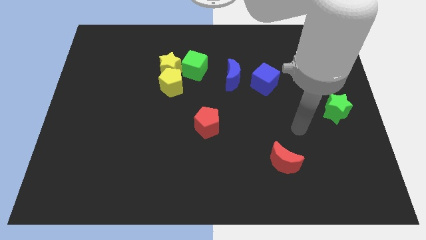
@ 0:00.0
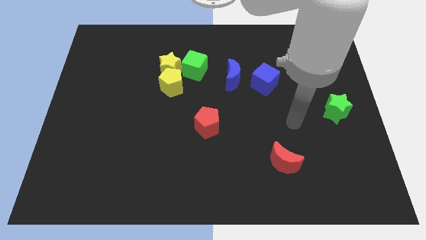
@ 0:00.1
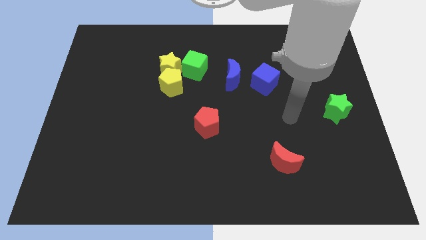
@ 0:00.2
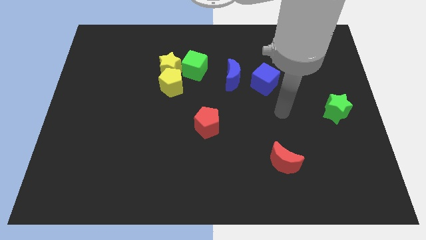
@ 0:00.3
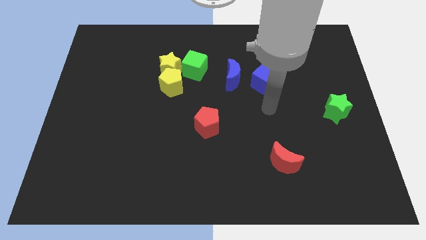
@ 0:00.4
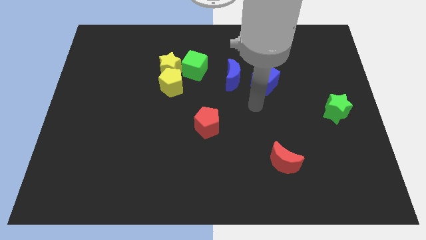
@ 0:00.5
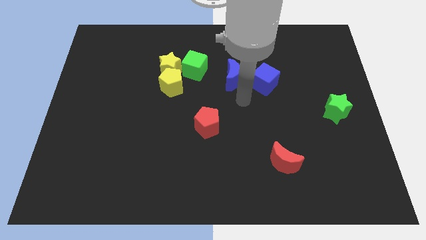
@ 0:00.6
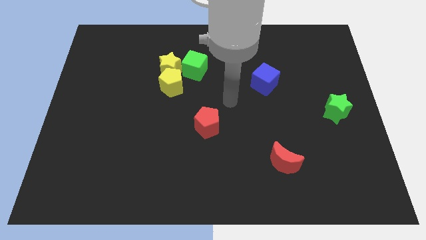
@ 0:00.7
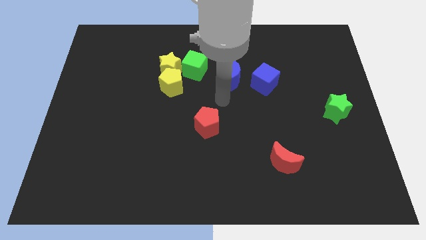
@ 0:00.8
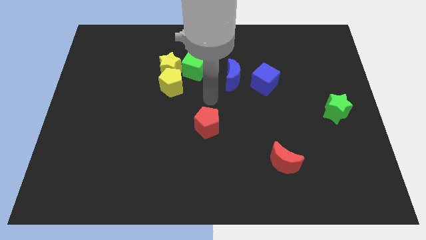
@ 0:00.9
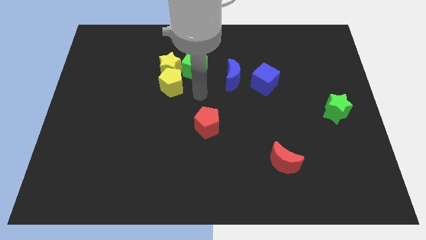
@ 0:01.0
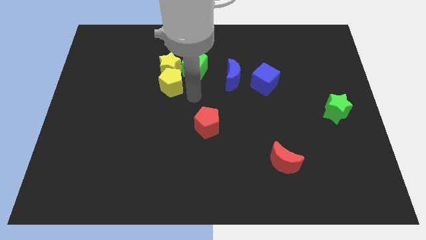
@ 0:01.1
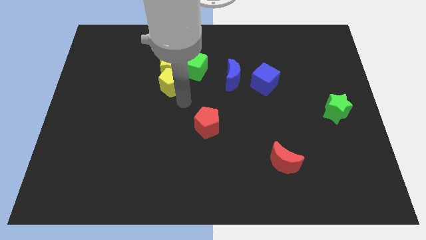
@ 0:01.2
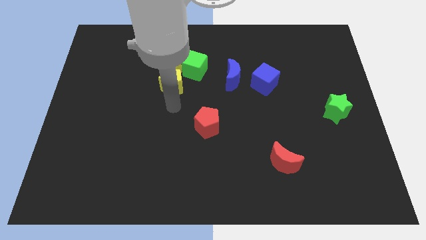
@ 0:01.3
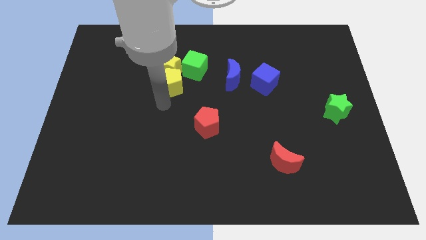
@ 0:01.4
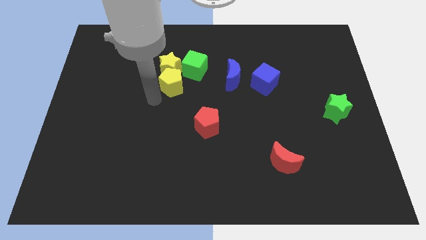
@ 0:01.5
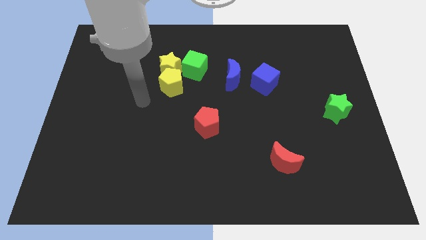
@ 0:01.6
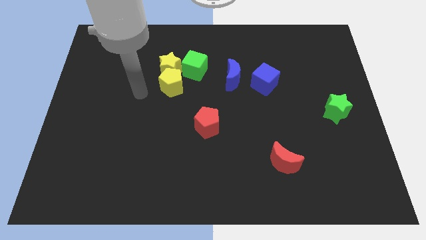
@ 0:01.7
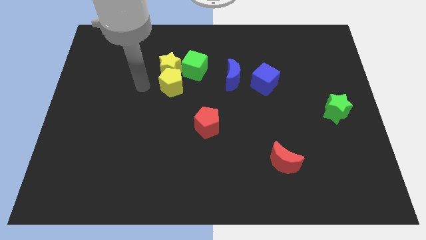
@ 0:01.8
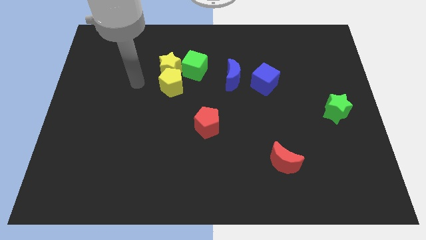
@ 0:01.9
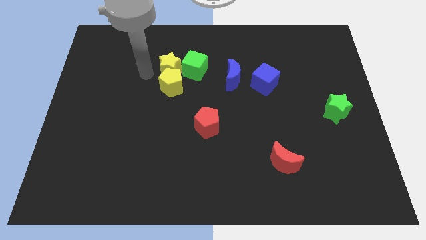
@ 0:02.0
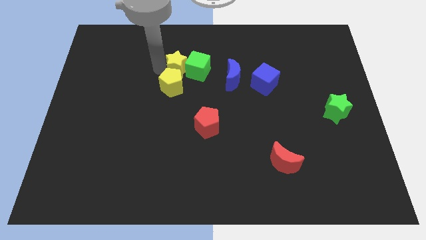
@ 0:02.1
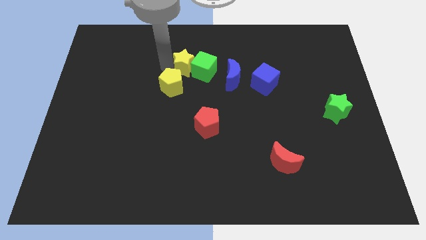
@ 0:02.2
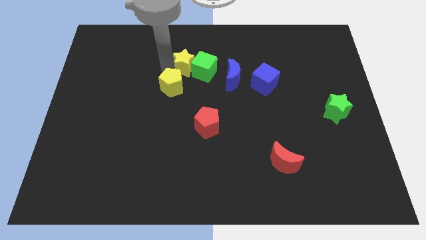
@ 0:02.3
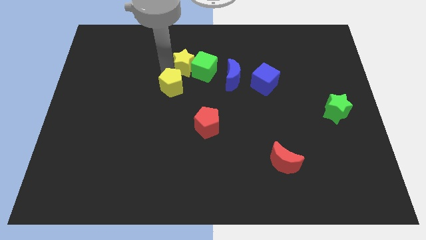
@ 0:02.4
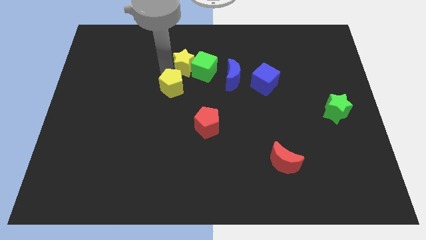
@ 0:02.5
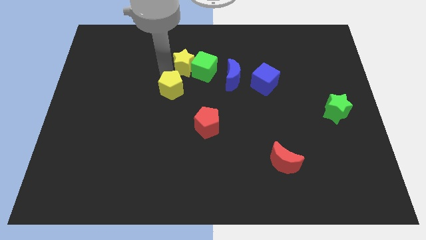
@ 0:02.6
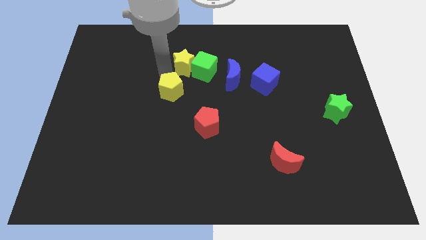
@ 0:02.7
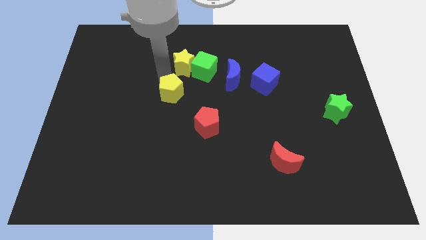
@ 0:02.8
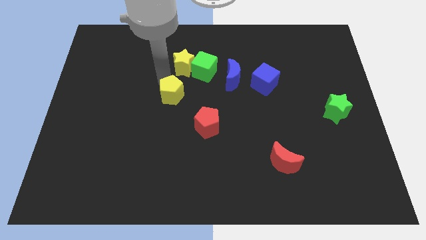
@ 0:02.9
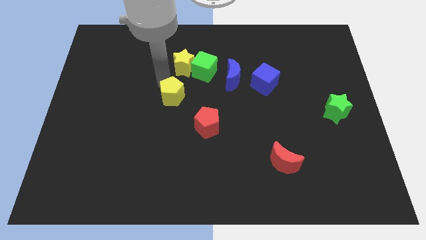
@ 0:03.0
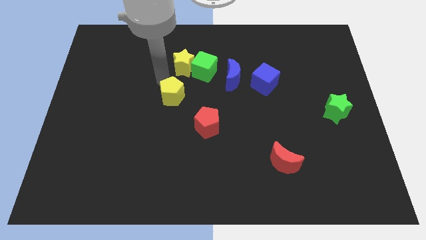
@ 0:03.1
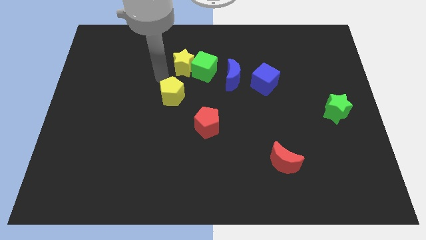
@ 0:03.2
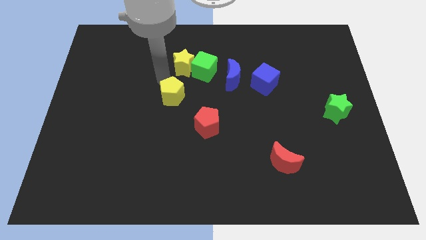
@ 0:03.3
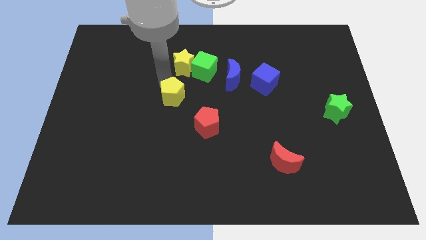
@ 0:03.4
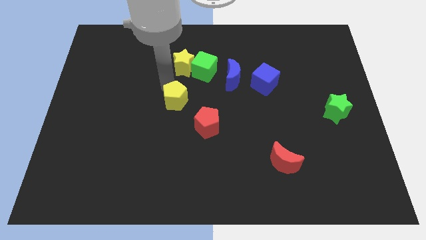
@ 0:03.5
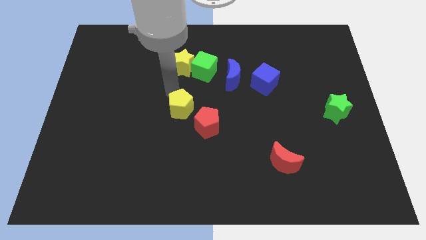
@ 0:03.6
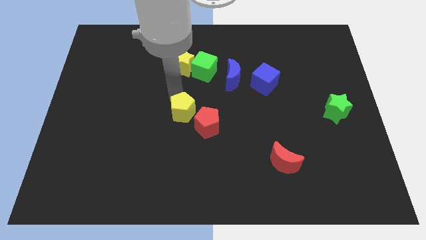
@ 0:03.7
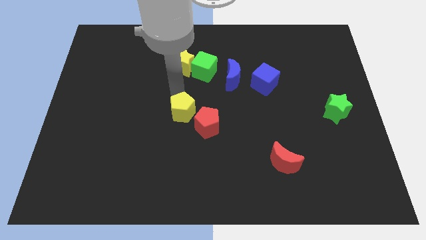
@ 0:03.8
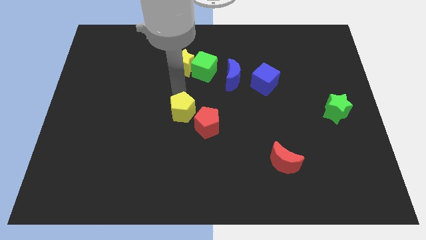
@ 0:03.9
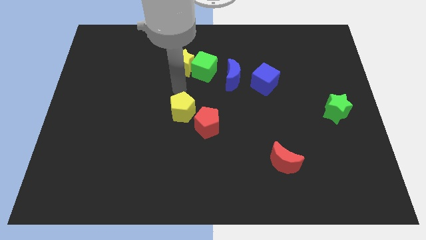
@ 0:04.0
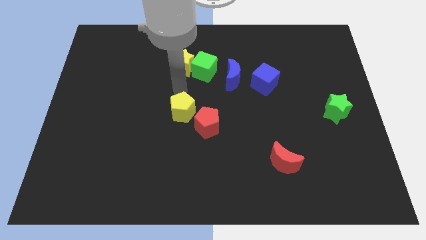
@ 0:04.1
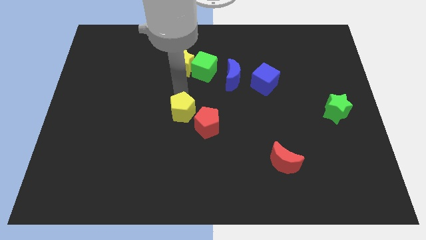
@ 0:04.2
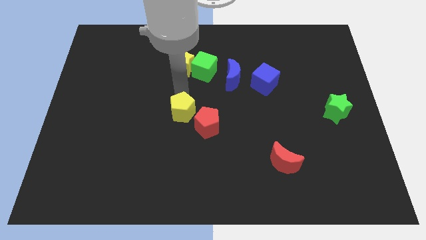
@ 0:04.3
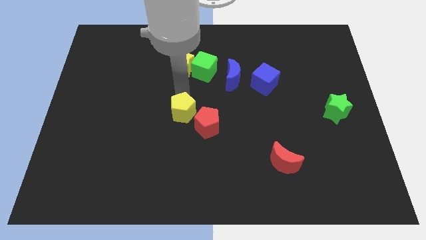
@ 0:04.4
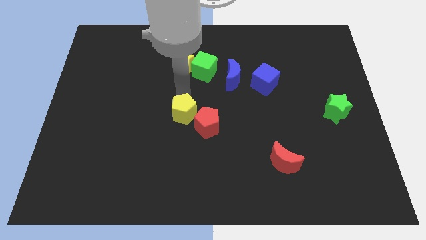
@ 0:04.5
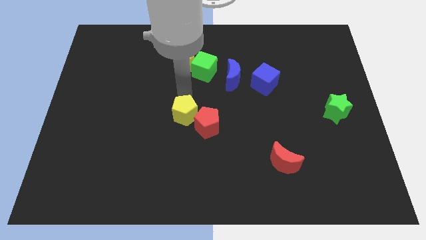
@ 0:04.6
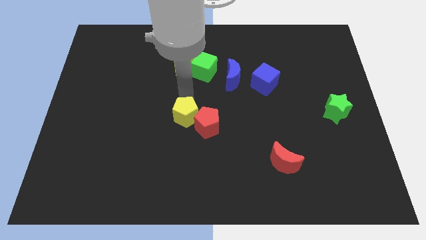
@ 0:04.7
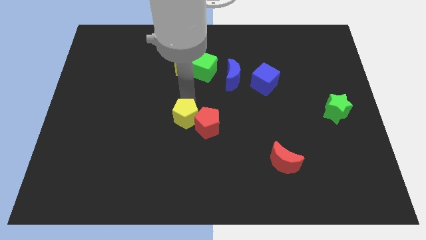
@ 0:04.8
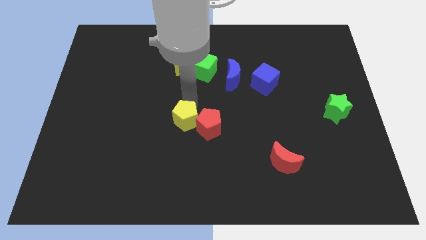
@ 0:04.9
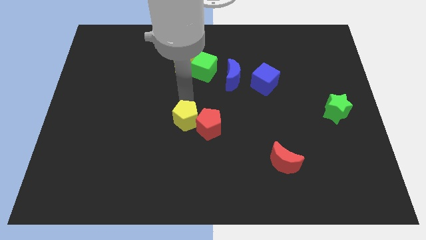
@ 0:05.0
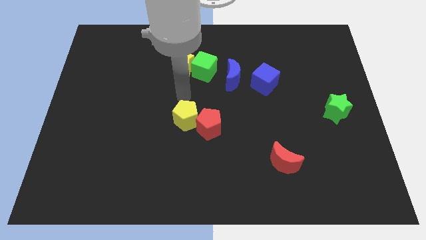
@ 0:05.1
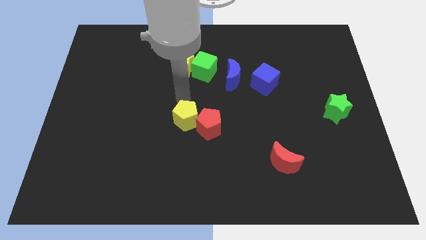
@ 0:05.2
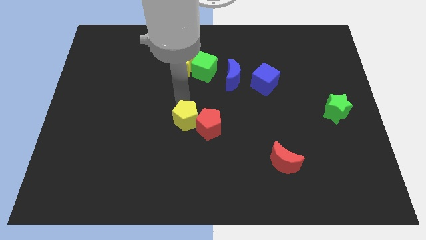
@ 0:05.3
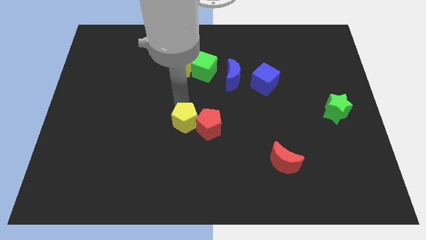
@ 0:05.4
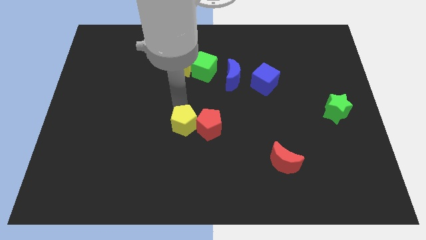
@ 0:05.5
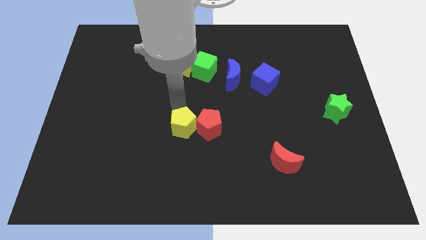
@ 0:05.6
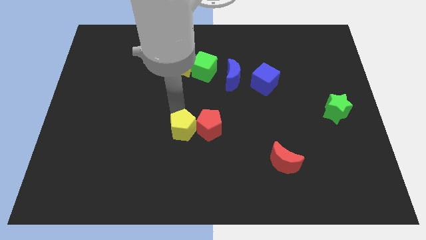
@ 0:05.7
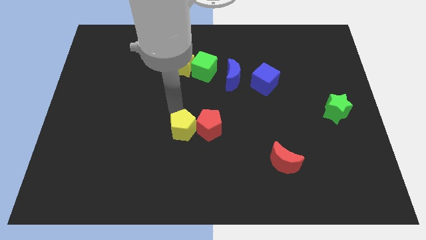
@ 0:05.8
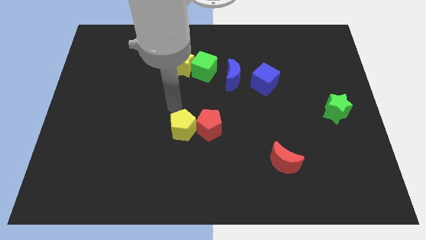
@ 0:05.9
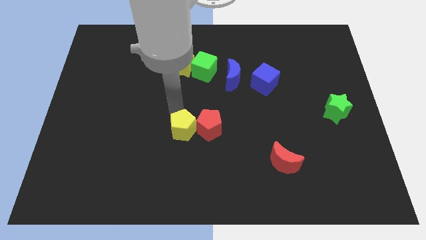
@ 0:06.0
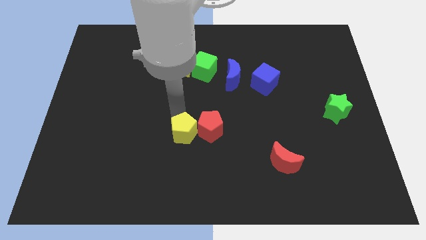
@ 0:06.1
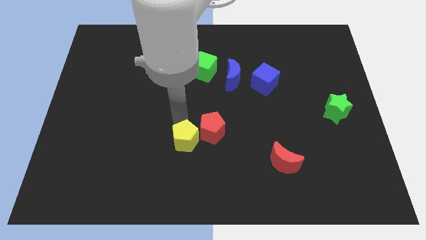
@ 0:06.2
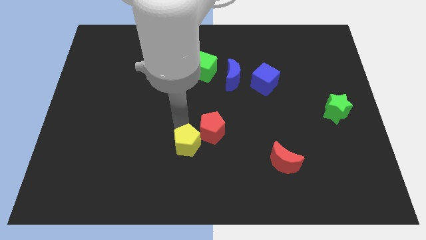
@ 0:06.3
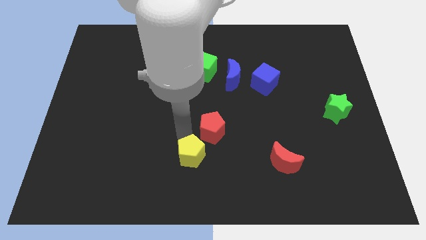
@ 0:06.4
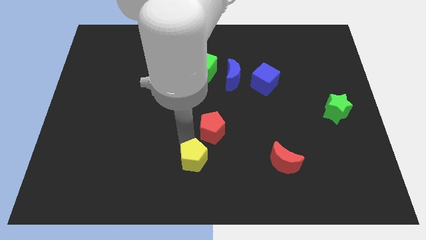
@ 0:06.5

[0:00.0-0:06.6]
push the yellow pentagon to the bottom side

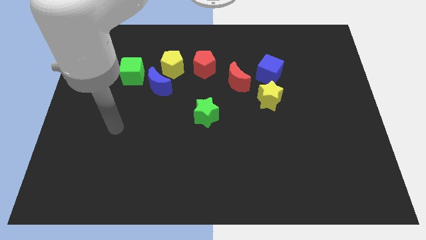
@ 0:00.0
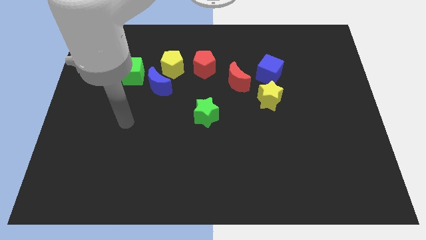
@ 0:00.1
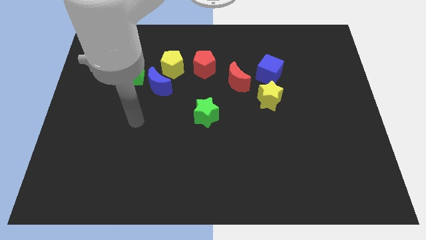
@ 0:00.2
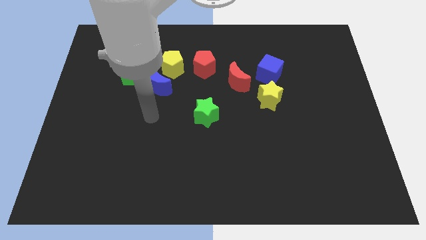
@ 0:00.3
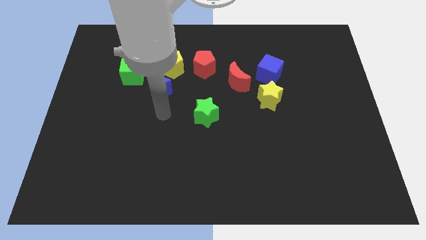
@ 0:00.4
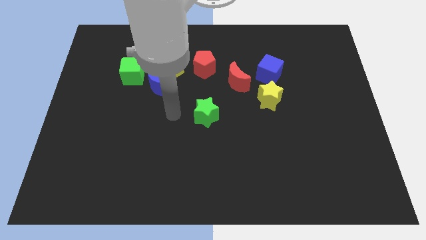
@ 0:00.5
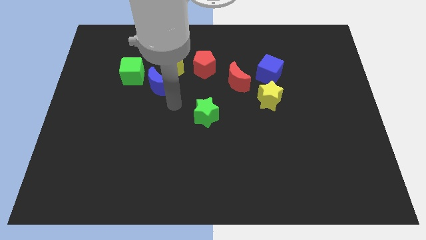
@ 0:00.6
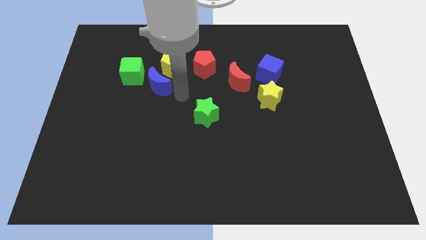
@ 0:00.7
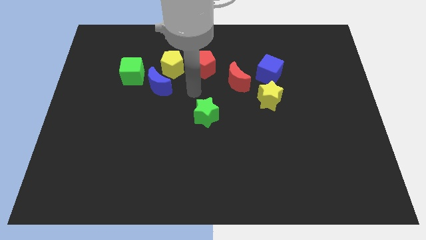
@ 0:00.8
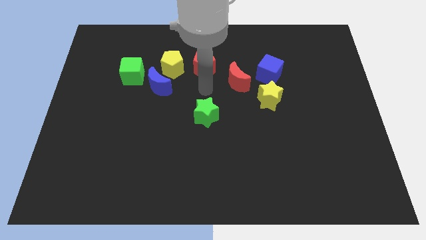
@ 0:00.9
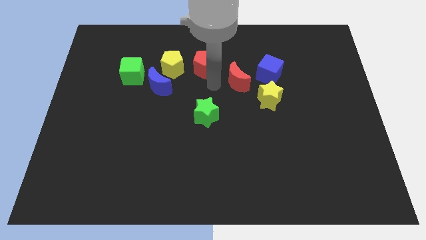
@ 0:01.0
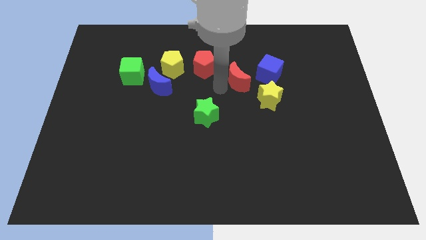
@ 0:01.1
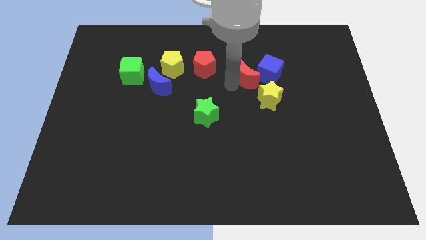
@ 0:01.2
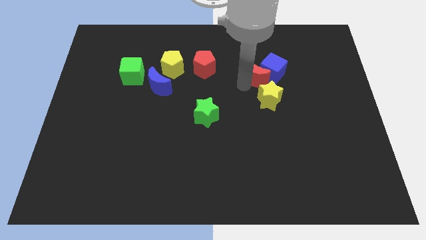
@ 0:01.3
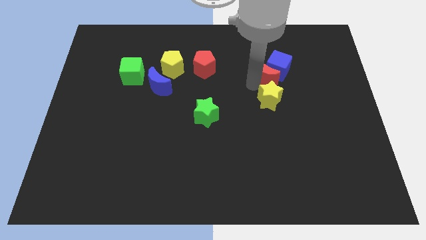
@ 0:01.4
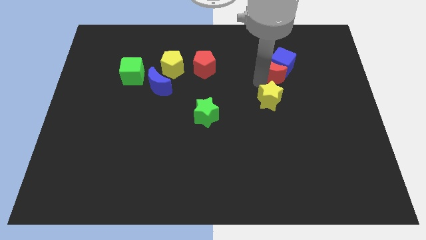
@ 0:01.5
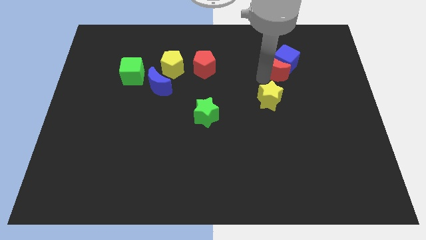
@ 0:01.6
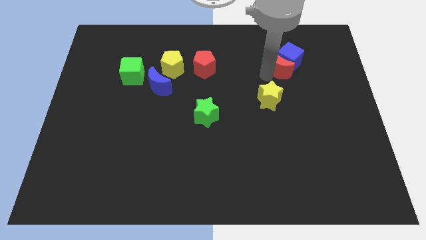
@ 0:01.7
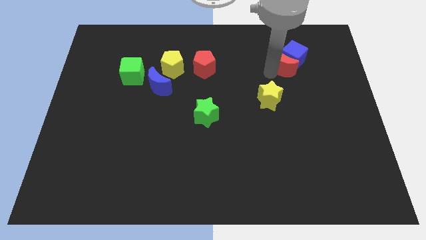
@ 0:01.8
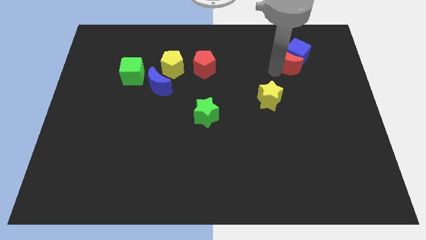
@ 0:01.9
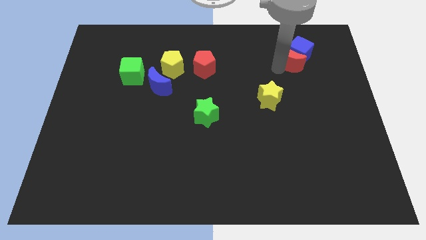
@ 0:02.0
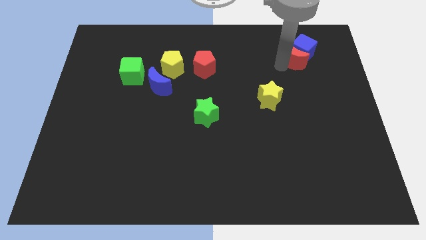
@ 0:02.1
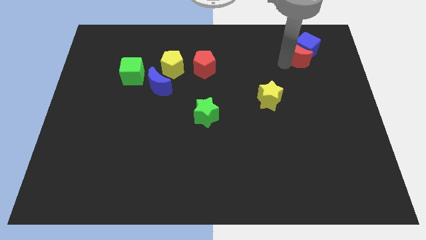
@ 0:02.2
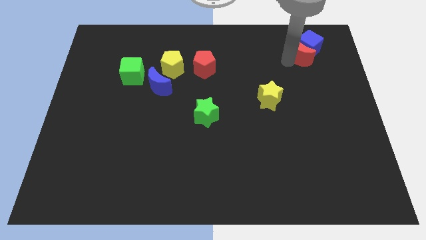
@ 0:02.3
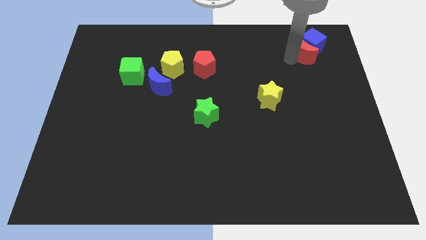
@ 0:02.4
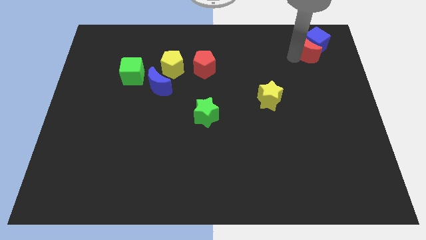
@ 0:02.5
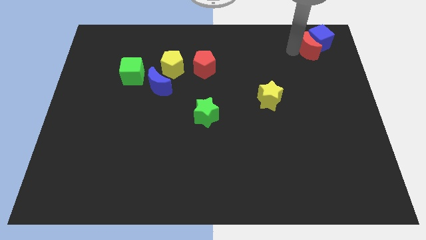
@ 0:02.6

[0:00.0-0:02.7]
slide the blue cube to the top right
